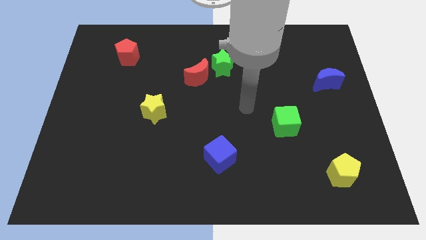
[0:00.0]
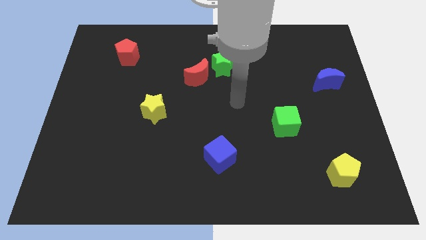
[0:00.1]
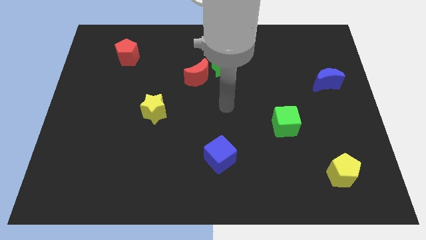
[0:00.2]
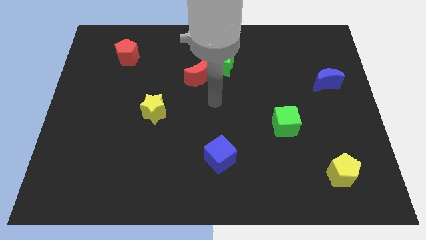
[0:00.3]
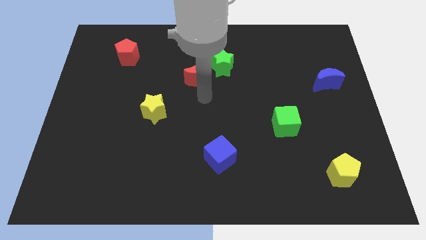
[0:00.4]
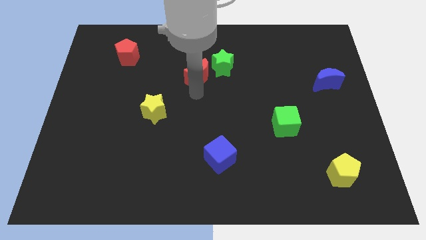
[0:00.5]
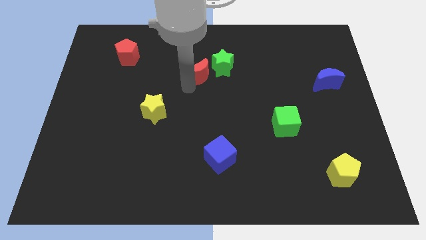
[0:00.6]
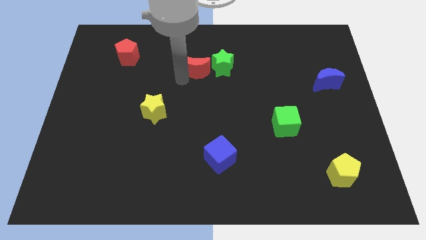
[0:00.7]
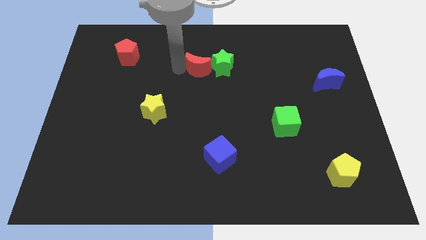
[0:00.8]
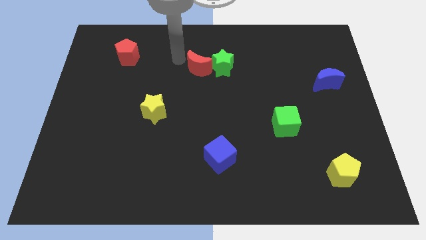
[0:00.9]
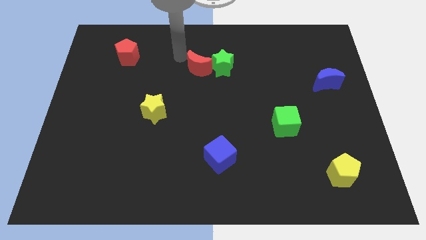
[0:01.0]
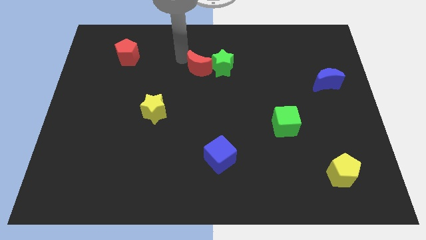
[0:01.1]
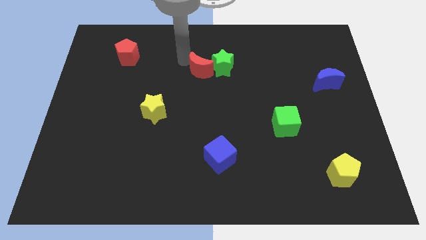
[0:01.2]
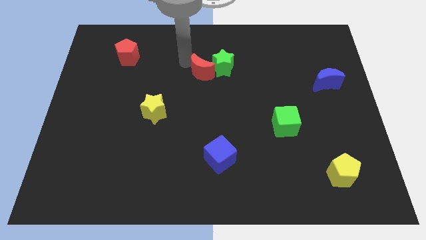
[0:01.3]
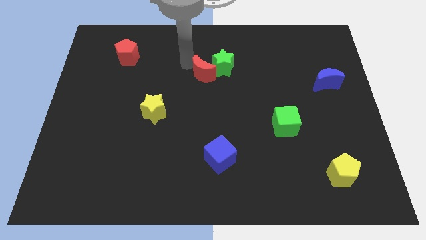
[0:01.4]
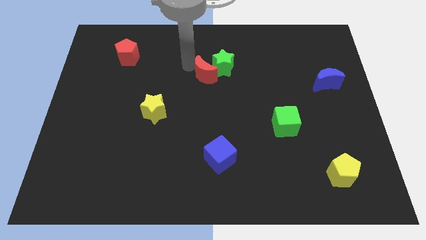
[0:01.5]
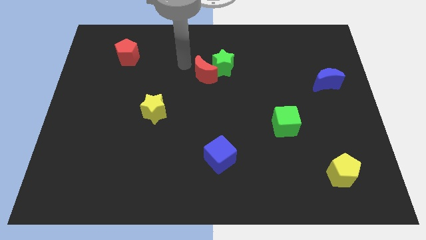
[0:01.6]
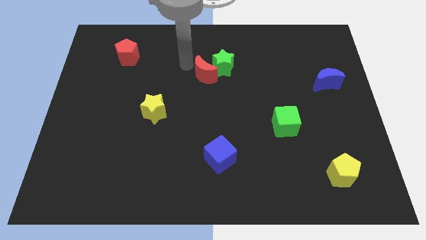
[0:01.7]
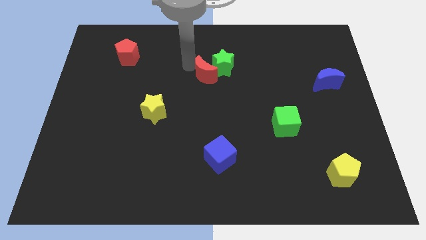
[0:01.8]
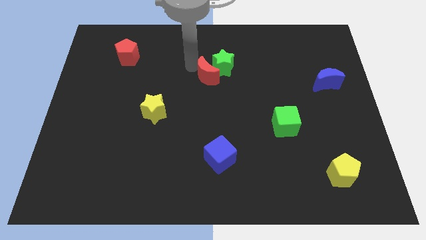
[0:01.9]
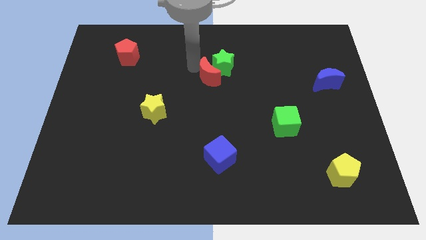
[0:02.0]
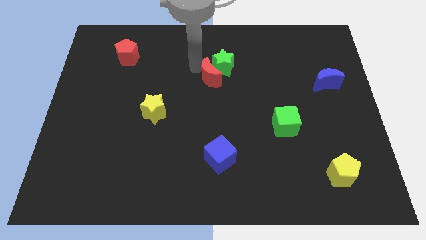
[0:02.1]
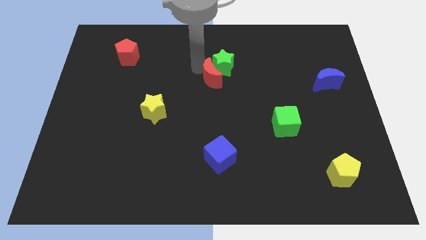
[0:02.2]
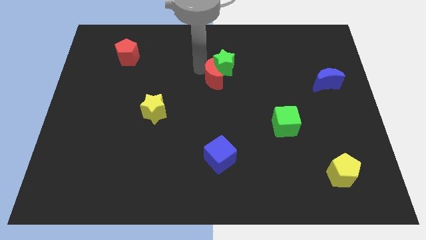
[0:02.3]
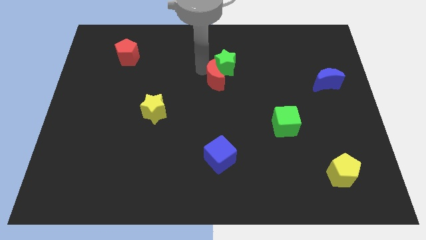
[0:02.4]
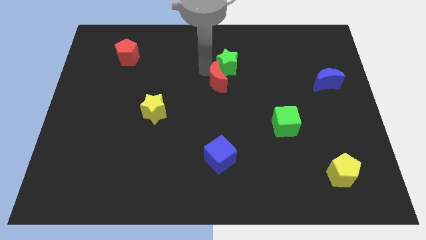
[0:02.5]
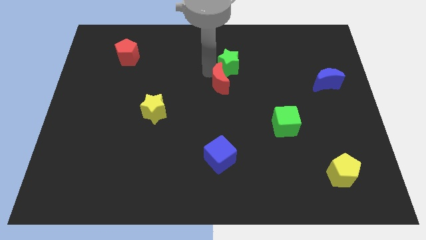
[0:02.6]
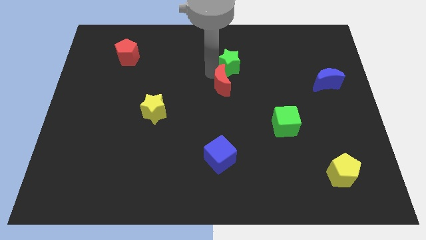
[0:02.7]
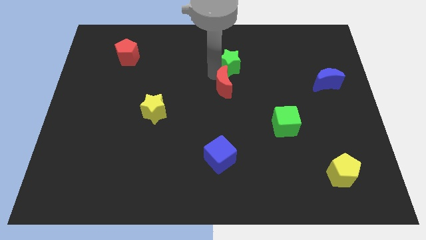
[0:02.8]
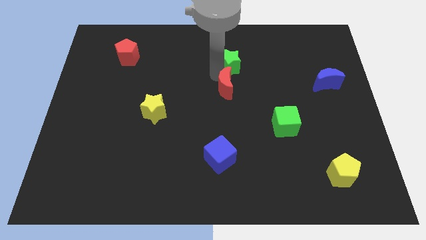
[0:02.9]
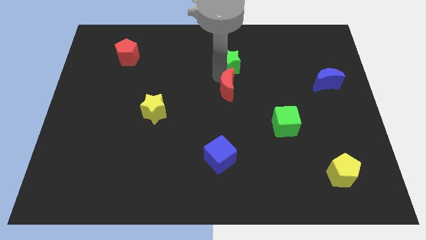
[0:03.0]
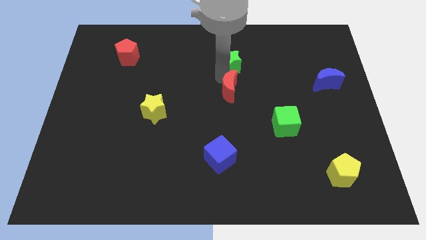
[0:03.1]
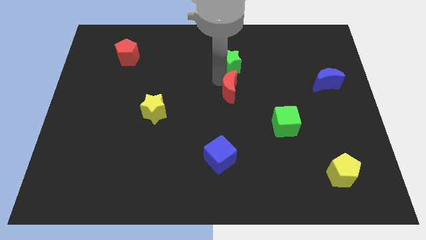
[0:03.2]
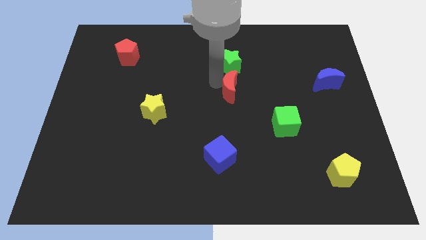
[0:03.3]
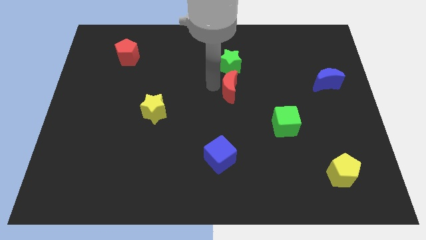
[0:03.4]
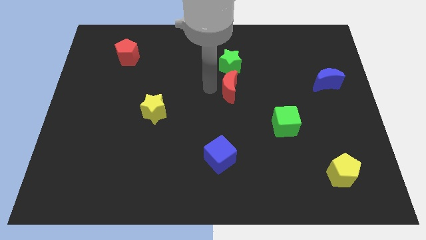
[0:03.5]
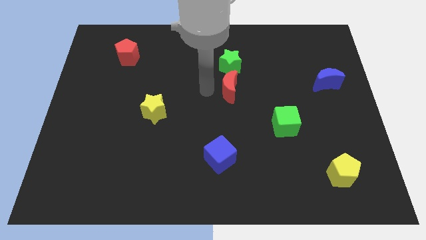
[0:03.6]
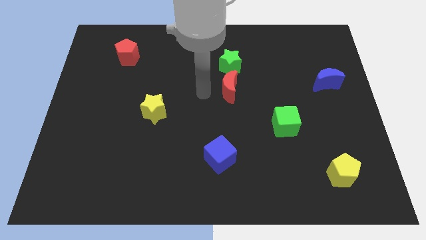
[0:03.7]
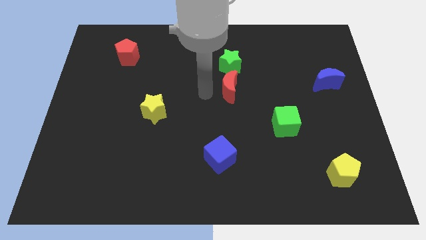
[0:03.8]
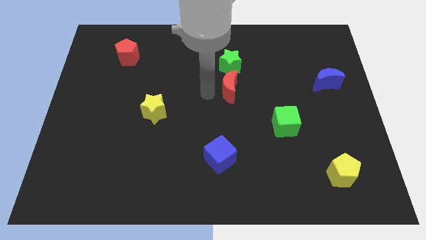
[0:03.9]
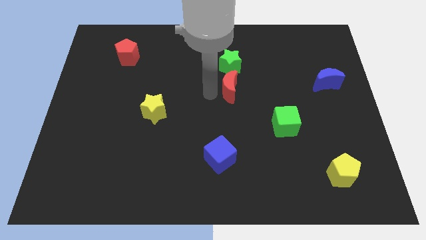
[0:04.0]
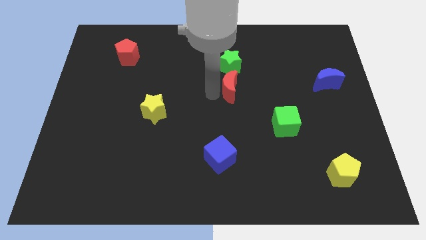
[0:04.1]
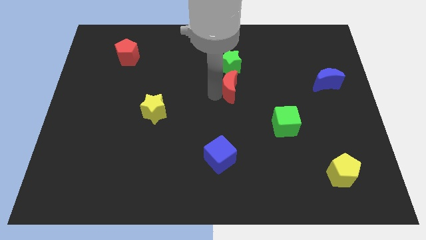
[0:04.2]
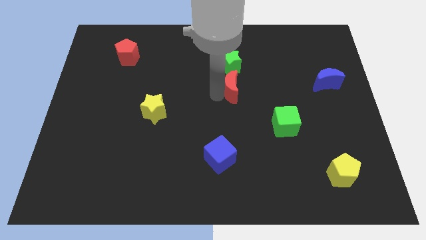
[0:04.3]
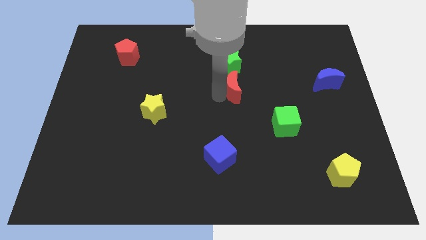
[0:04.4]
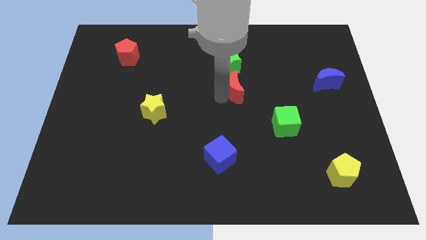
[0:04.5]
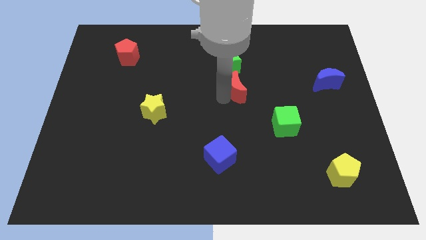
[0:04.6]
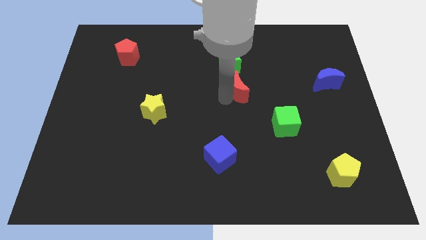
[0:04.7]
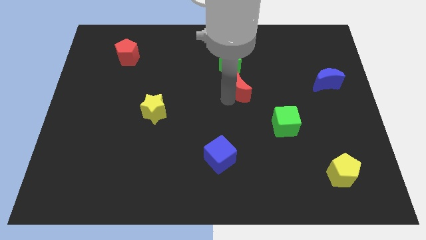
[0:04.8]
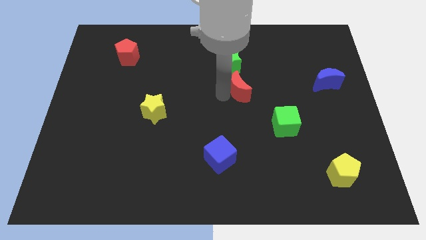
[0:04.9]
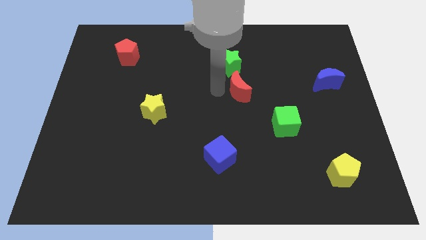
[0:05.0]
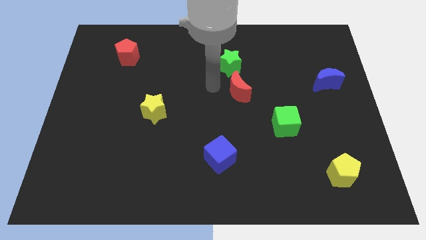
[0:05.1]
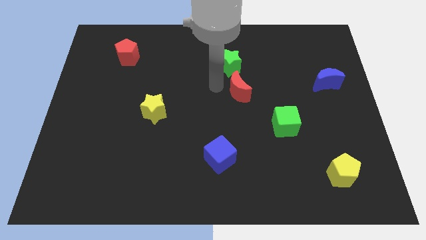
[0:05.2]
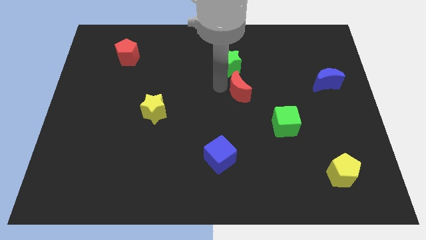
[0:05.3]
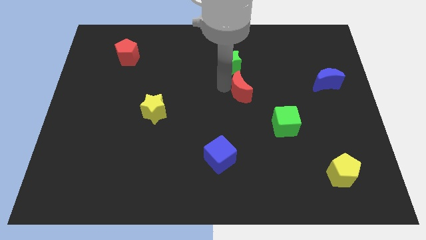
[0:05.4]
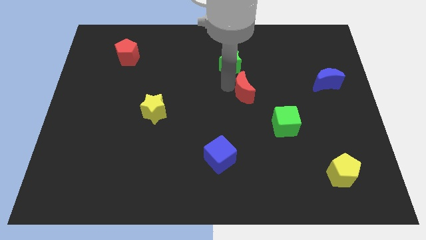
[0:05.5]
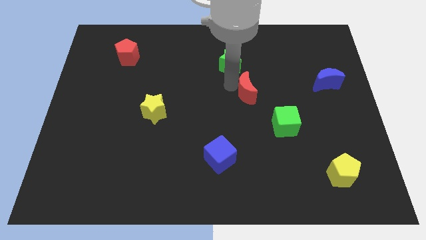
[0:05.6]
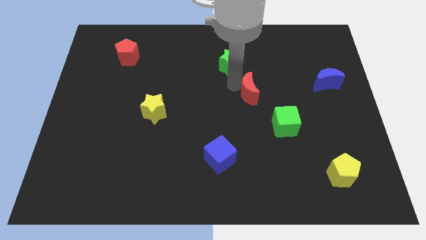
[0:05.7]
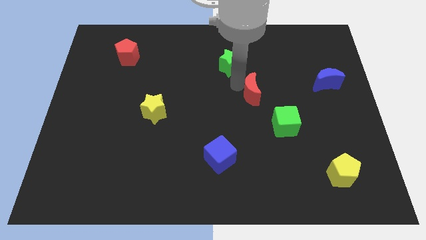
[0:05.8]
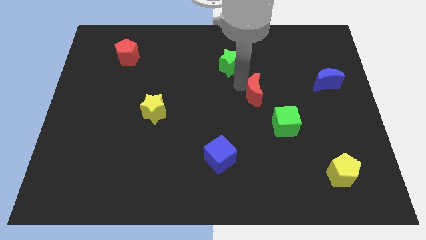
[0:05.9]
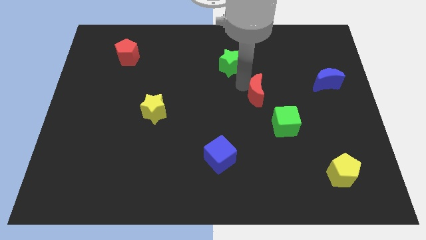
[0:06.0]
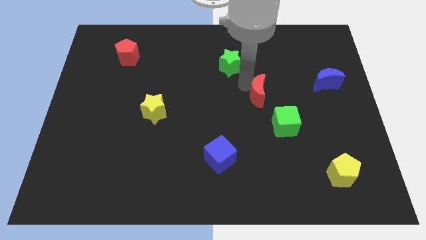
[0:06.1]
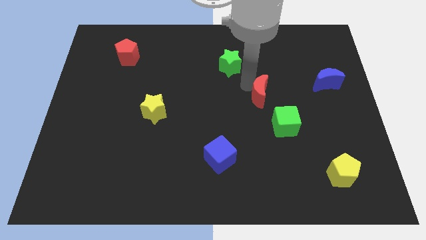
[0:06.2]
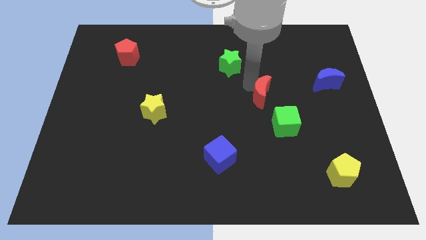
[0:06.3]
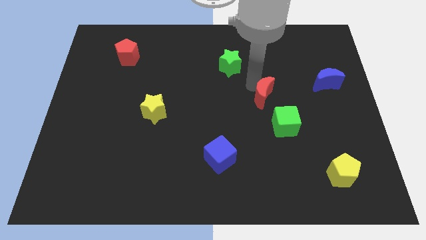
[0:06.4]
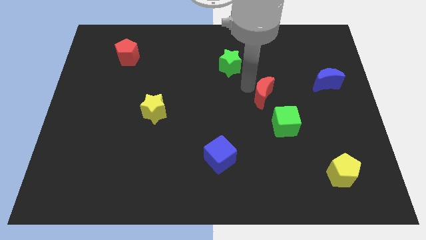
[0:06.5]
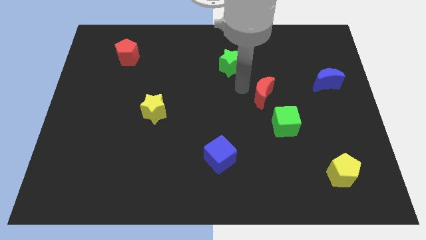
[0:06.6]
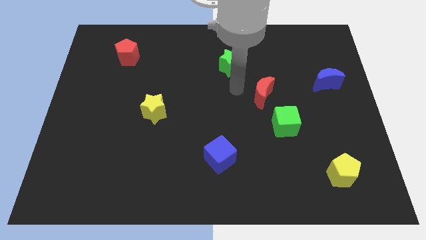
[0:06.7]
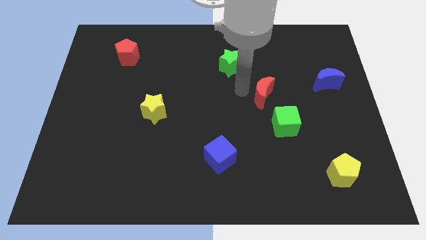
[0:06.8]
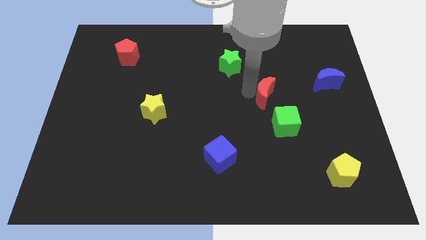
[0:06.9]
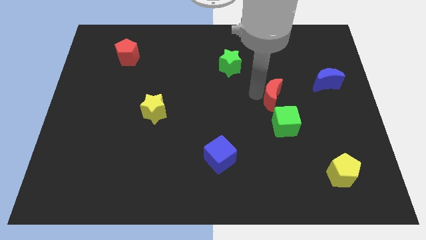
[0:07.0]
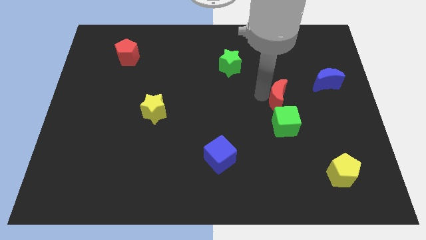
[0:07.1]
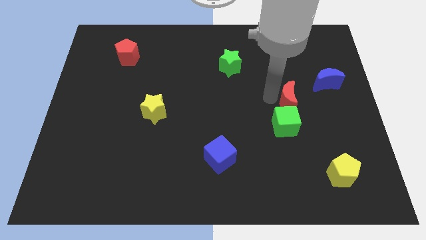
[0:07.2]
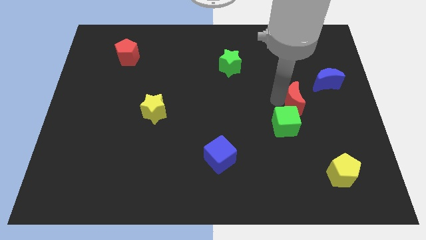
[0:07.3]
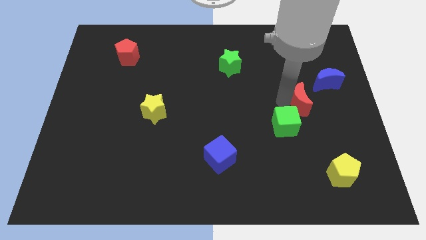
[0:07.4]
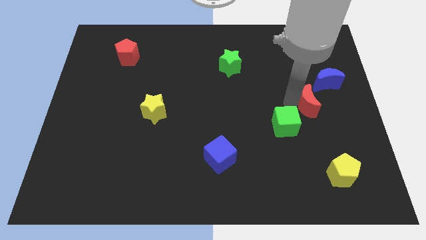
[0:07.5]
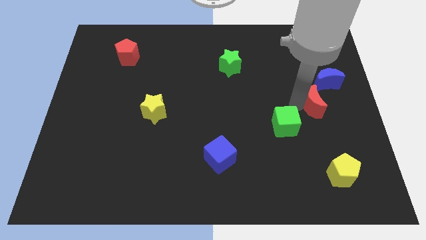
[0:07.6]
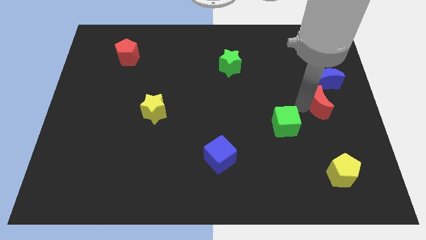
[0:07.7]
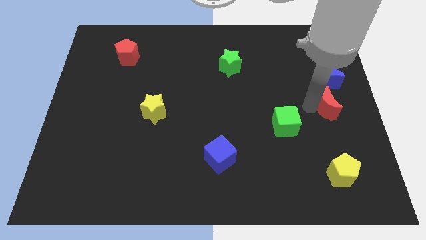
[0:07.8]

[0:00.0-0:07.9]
put the red moon to the right side
